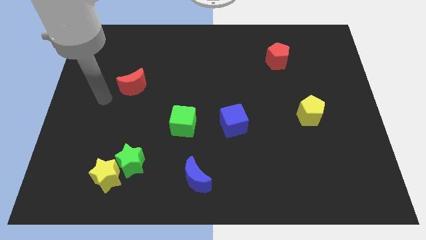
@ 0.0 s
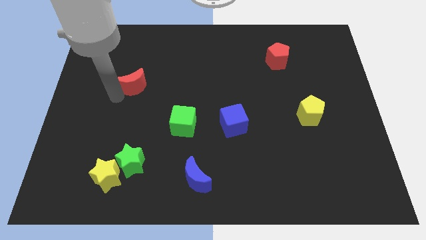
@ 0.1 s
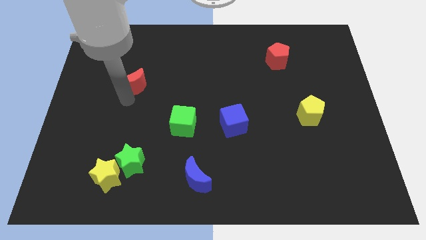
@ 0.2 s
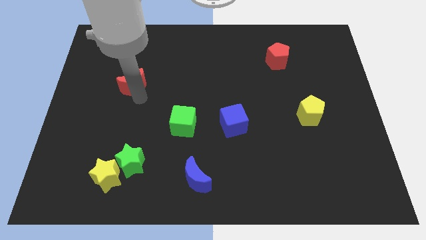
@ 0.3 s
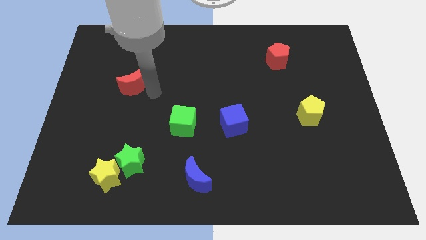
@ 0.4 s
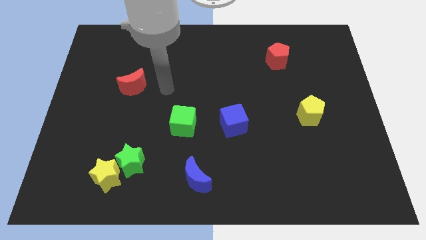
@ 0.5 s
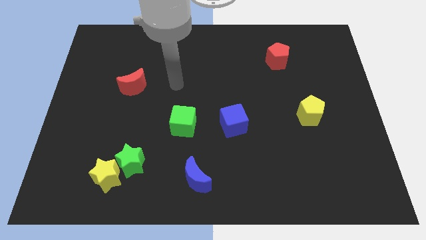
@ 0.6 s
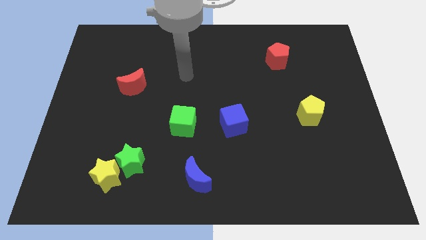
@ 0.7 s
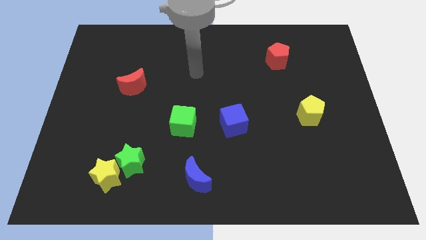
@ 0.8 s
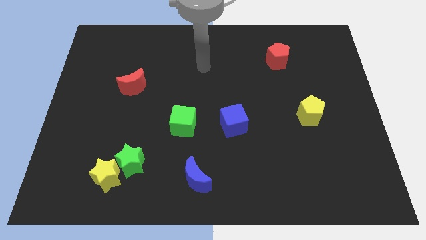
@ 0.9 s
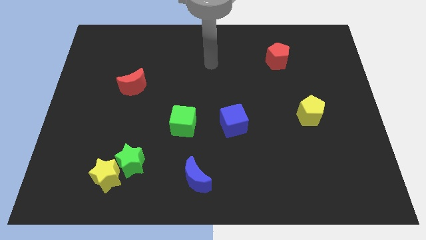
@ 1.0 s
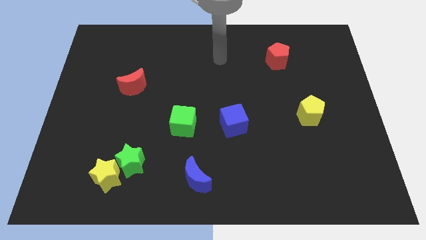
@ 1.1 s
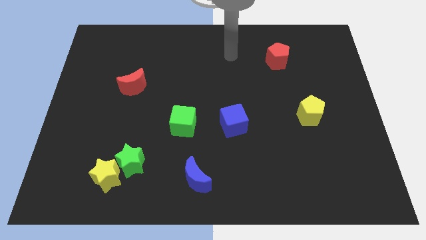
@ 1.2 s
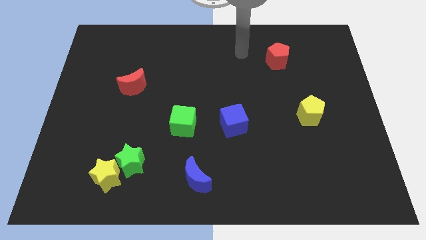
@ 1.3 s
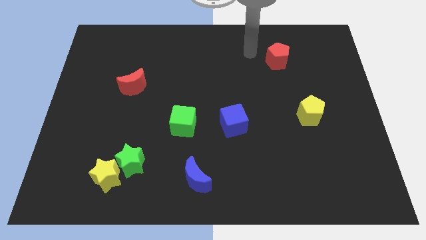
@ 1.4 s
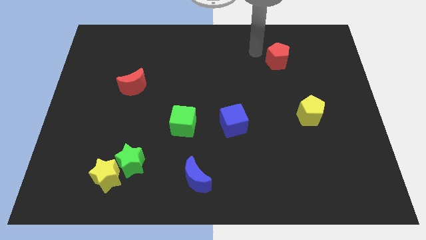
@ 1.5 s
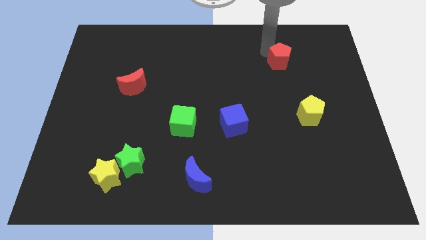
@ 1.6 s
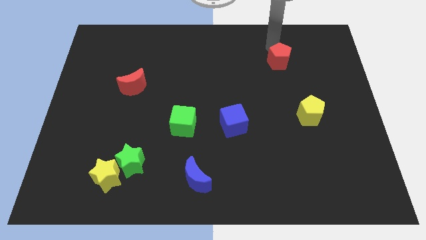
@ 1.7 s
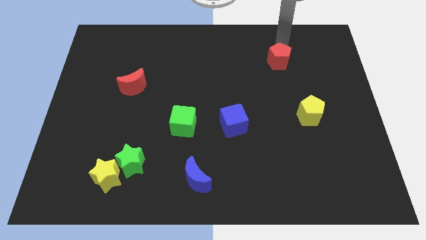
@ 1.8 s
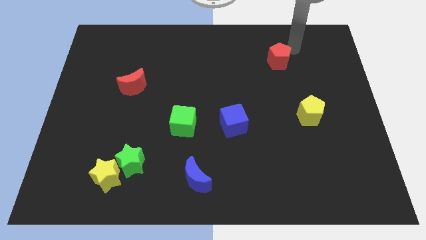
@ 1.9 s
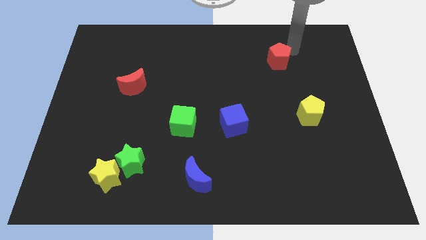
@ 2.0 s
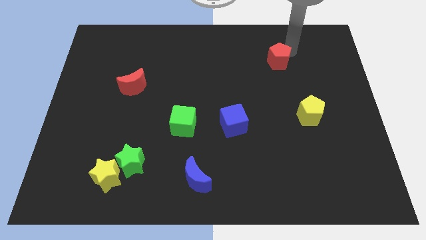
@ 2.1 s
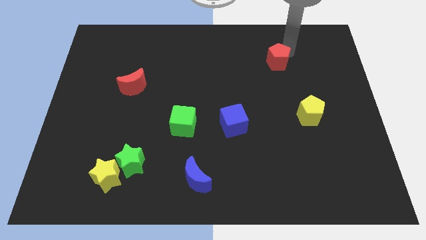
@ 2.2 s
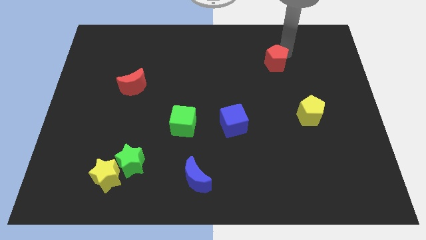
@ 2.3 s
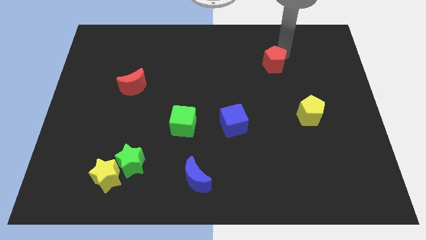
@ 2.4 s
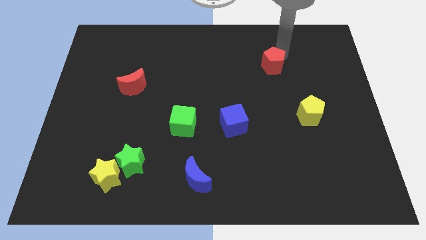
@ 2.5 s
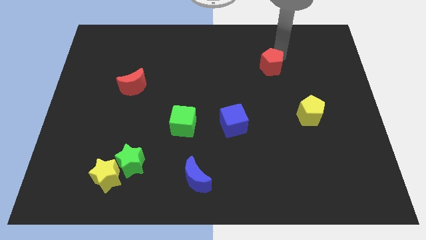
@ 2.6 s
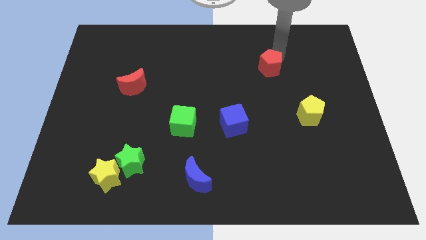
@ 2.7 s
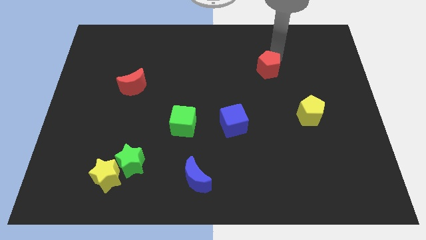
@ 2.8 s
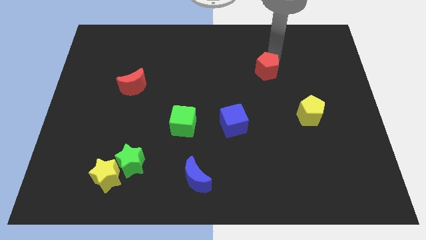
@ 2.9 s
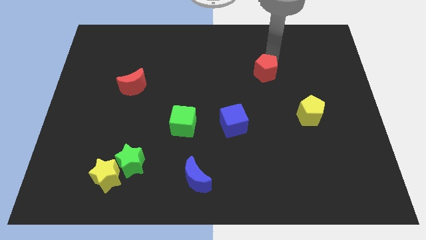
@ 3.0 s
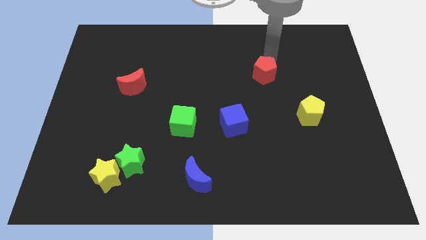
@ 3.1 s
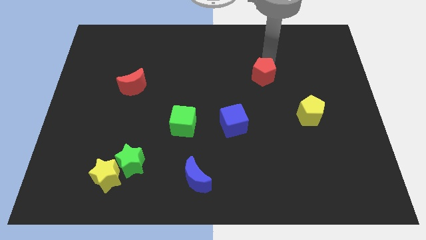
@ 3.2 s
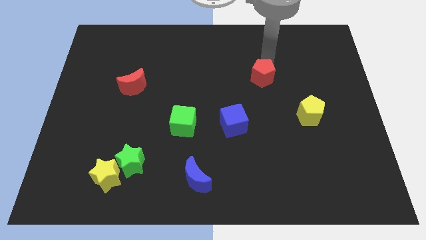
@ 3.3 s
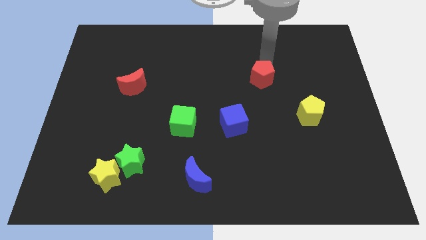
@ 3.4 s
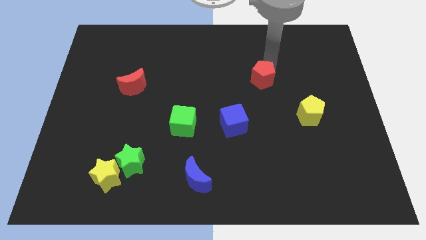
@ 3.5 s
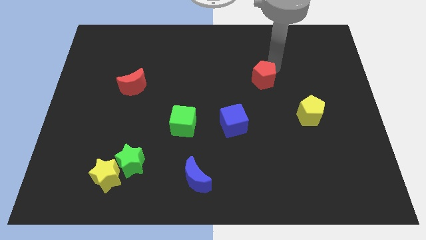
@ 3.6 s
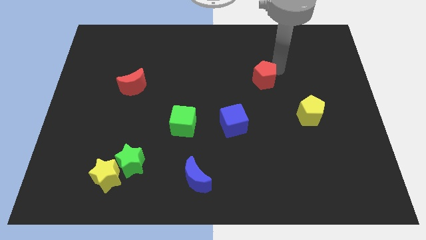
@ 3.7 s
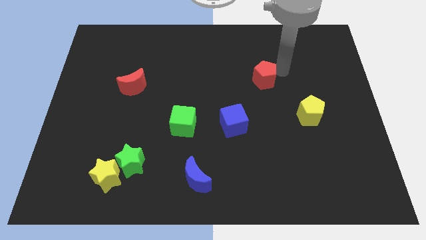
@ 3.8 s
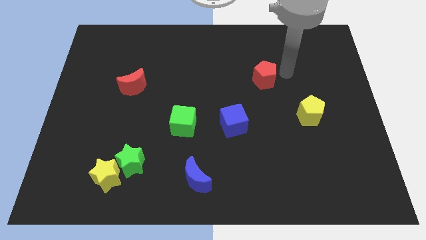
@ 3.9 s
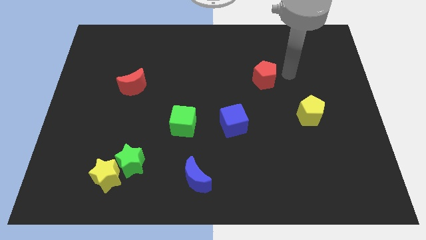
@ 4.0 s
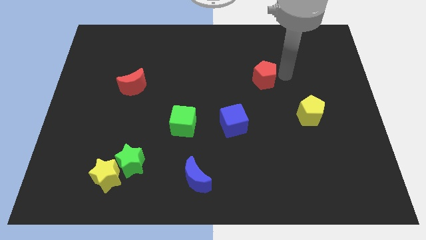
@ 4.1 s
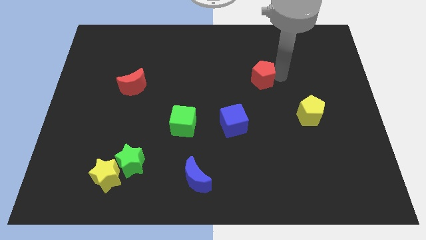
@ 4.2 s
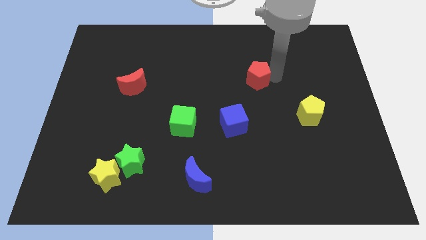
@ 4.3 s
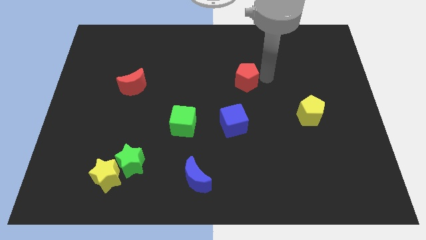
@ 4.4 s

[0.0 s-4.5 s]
slide the red pentagon to the middle

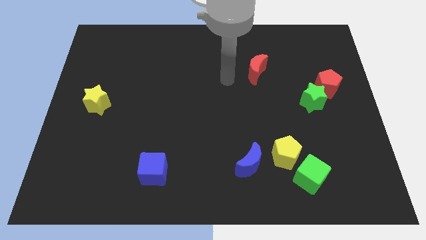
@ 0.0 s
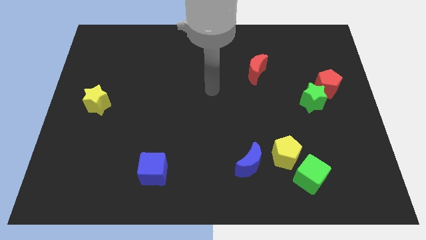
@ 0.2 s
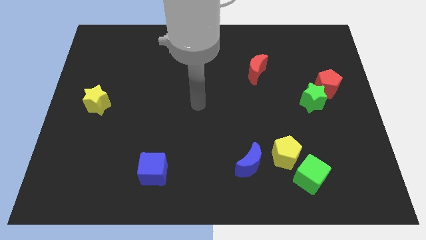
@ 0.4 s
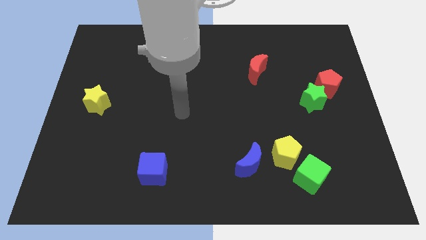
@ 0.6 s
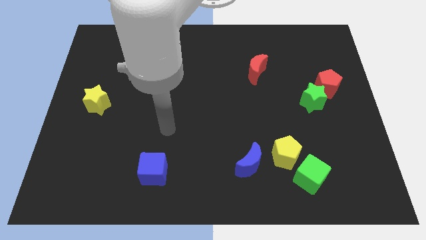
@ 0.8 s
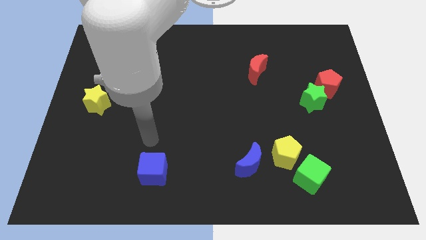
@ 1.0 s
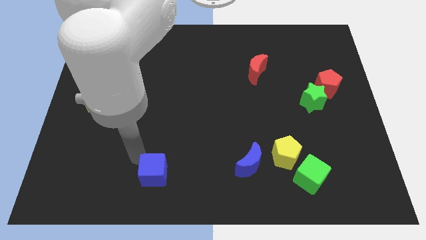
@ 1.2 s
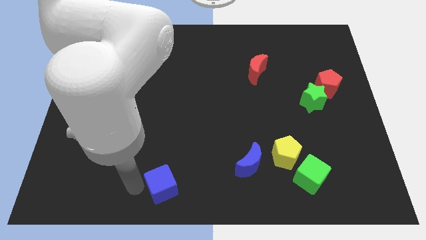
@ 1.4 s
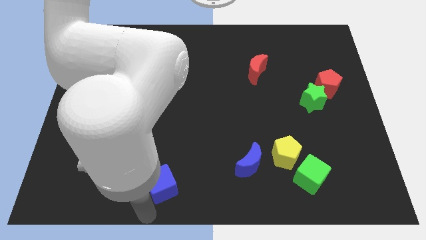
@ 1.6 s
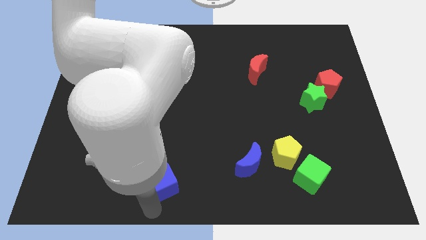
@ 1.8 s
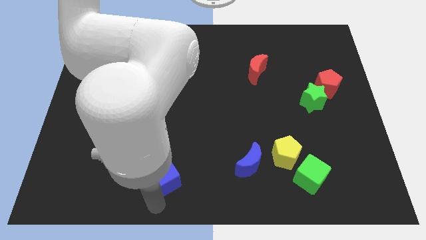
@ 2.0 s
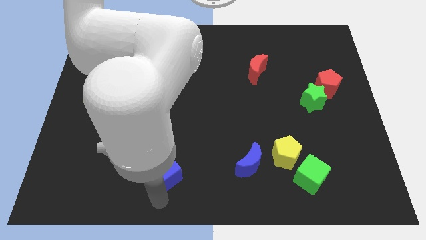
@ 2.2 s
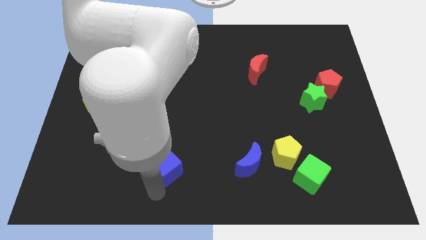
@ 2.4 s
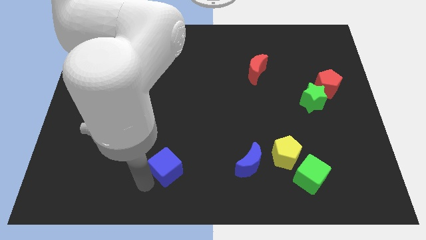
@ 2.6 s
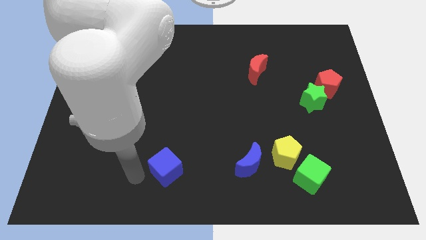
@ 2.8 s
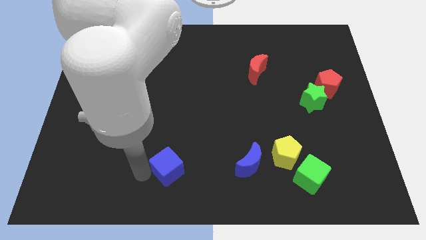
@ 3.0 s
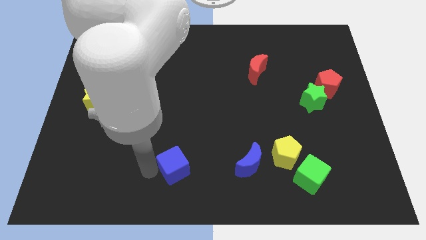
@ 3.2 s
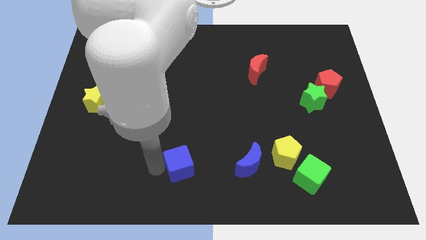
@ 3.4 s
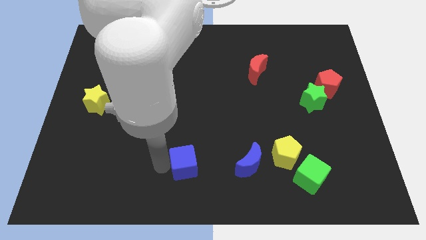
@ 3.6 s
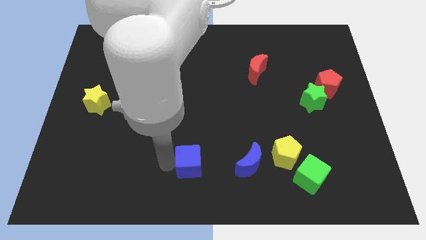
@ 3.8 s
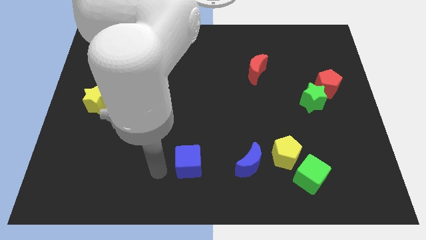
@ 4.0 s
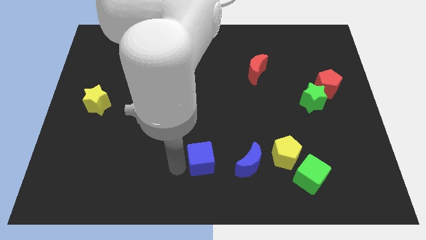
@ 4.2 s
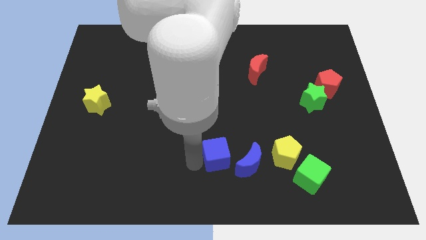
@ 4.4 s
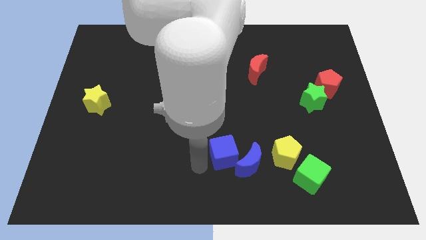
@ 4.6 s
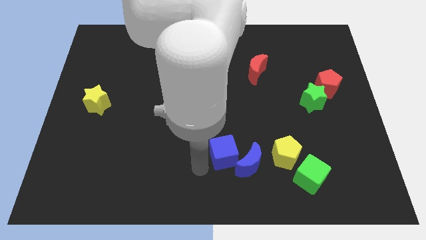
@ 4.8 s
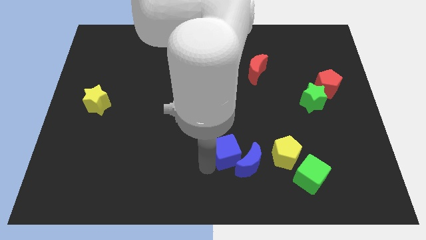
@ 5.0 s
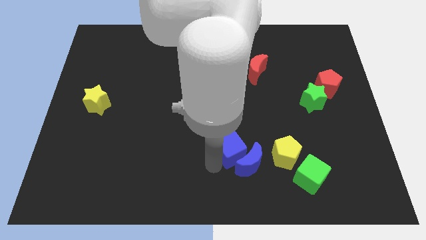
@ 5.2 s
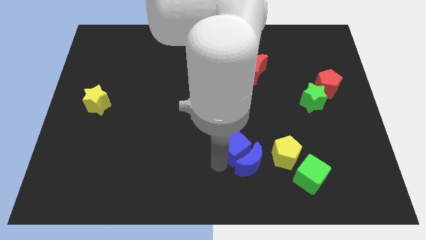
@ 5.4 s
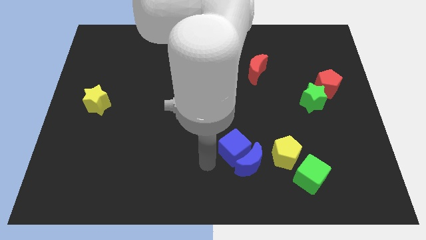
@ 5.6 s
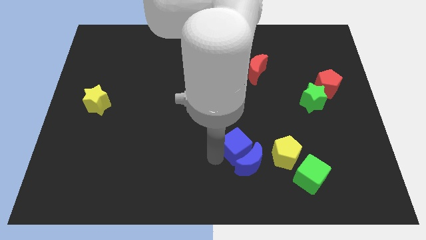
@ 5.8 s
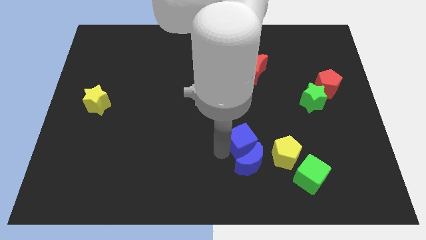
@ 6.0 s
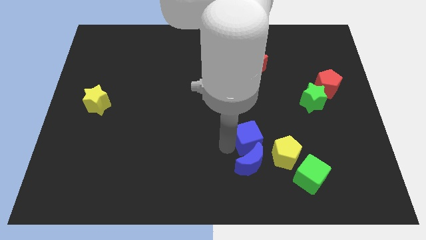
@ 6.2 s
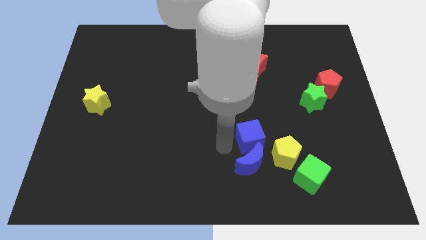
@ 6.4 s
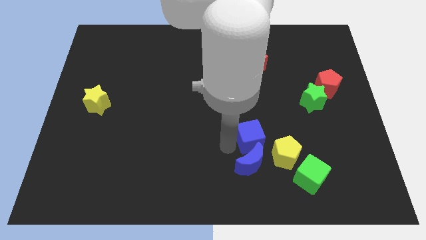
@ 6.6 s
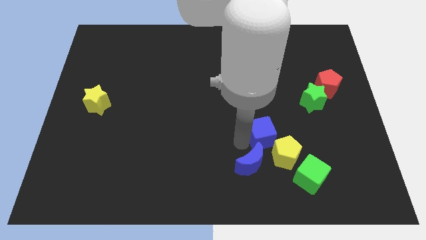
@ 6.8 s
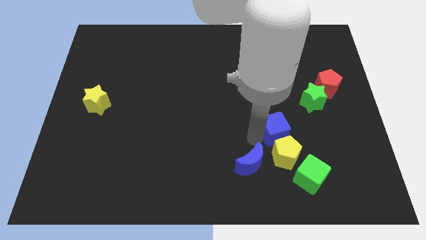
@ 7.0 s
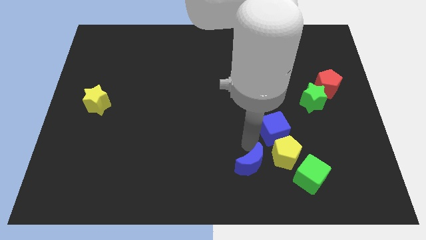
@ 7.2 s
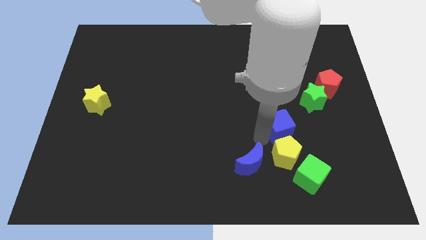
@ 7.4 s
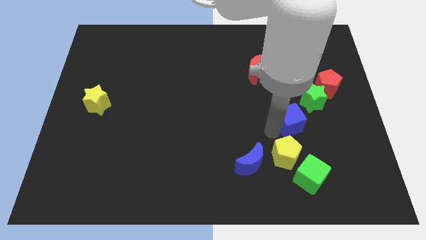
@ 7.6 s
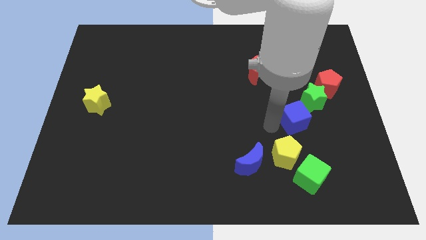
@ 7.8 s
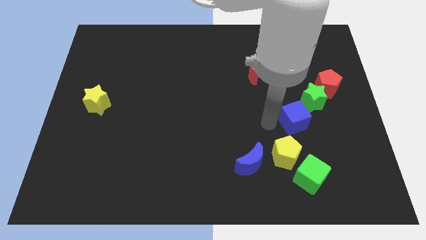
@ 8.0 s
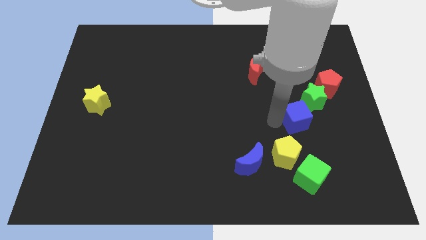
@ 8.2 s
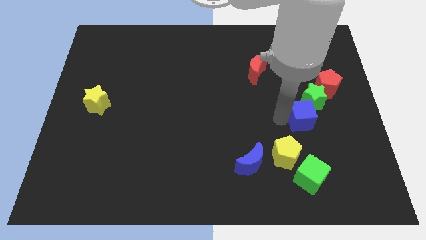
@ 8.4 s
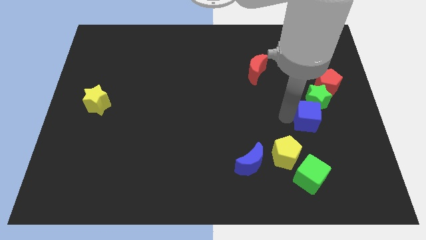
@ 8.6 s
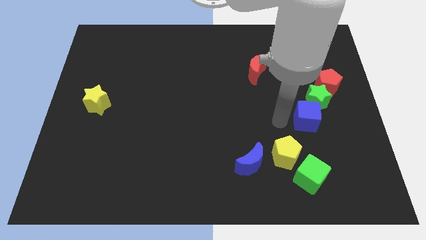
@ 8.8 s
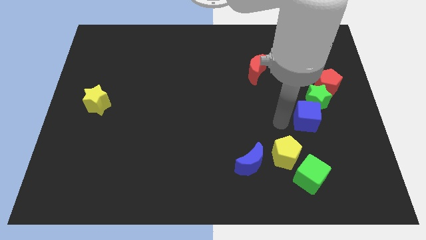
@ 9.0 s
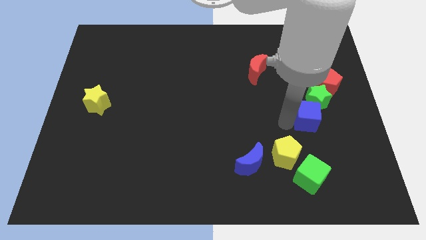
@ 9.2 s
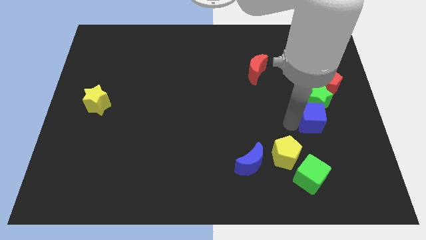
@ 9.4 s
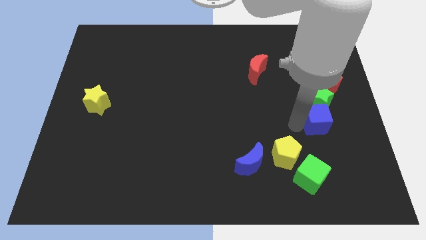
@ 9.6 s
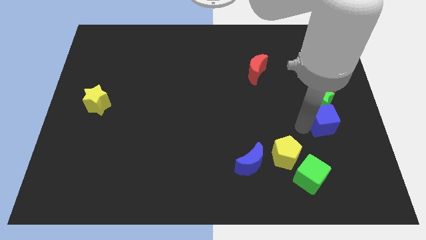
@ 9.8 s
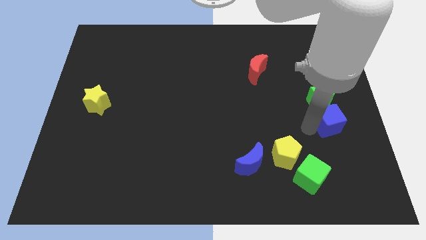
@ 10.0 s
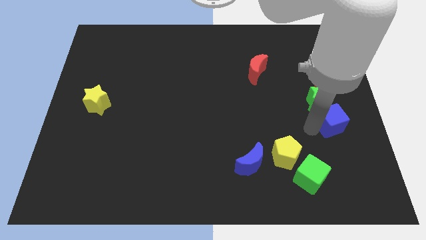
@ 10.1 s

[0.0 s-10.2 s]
slide the blue cube to the right side of the board
